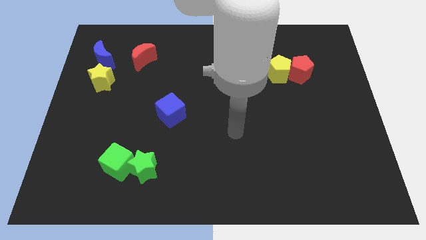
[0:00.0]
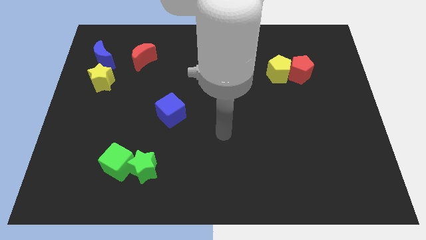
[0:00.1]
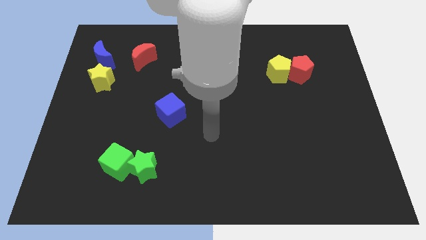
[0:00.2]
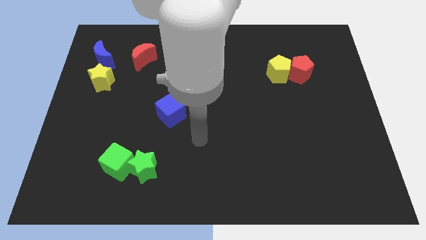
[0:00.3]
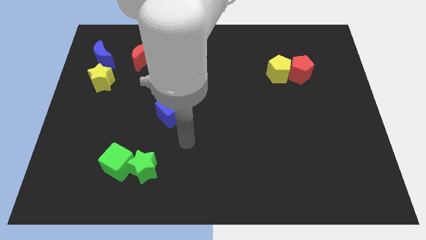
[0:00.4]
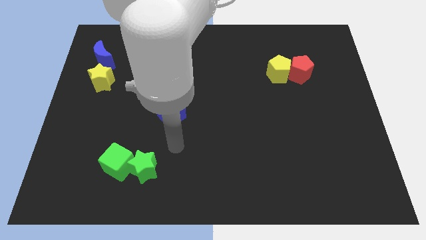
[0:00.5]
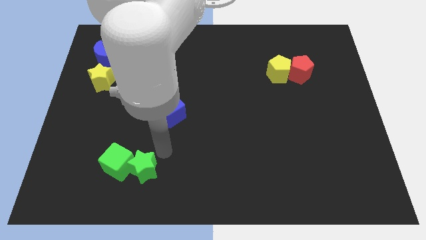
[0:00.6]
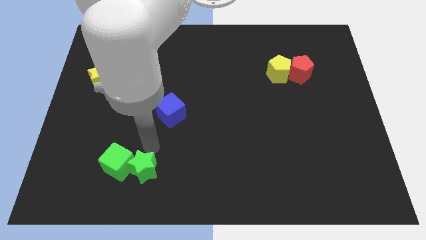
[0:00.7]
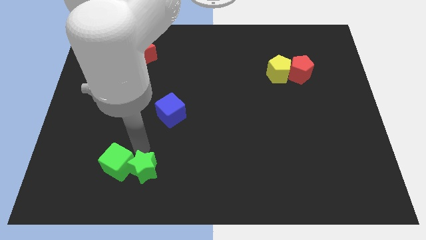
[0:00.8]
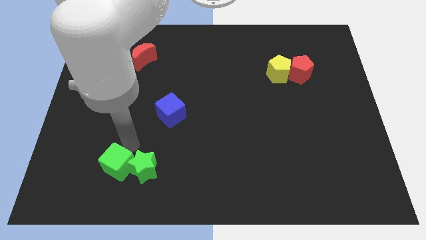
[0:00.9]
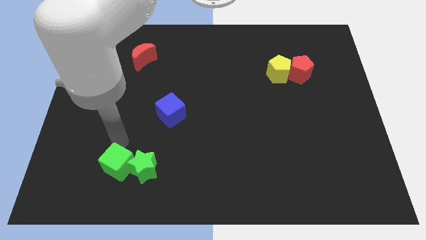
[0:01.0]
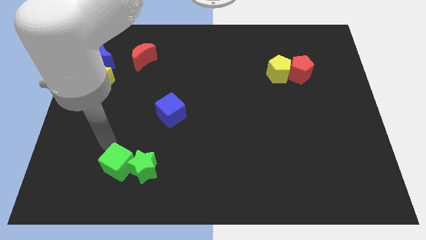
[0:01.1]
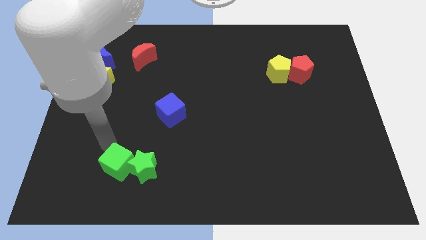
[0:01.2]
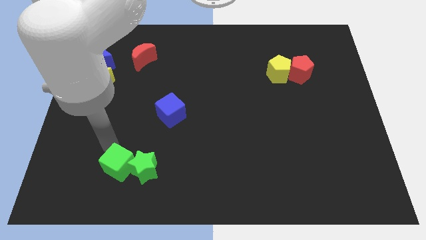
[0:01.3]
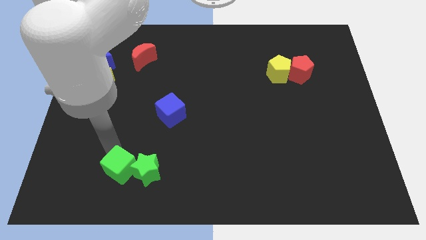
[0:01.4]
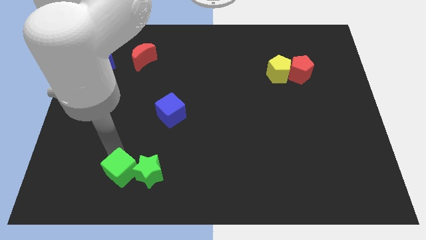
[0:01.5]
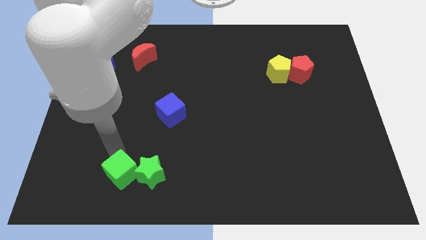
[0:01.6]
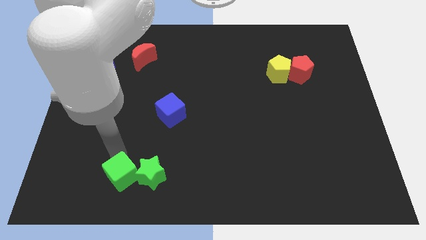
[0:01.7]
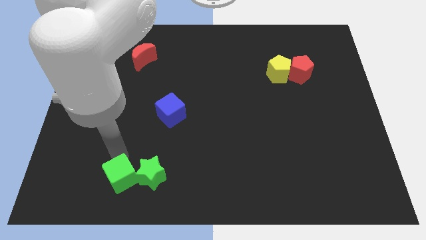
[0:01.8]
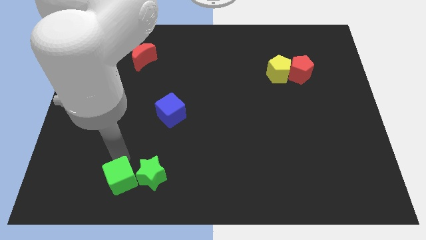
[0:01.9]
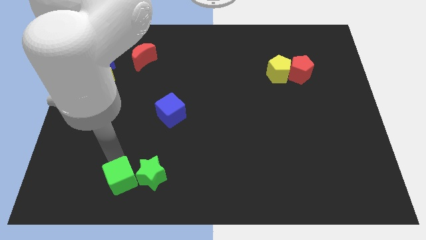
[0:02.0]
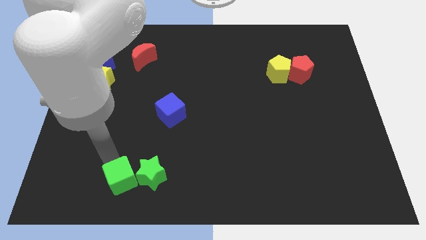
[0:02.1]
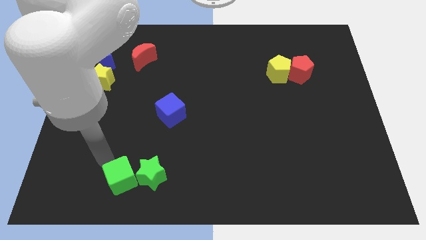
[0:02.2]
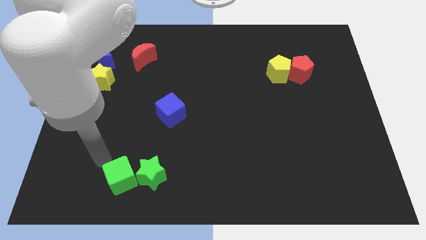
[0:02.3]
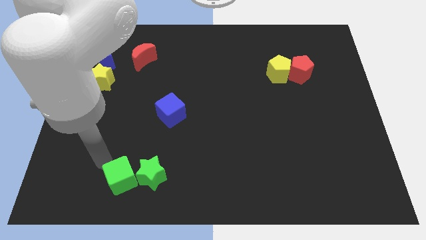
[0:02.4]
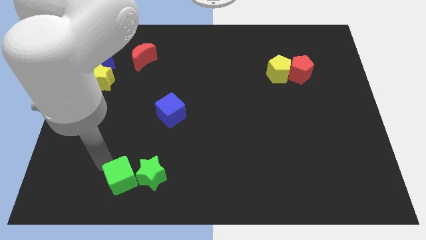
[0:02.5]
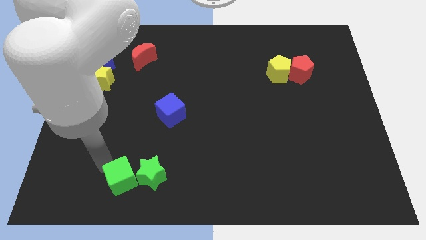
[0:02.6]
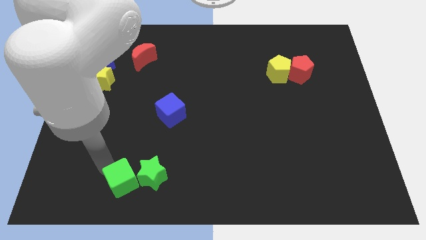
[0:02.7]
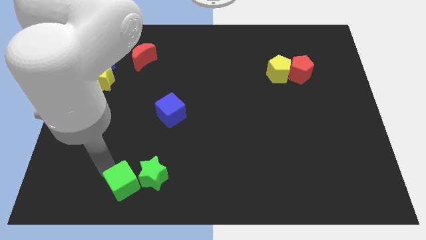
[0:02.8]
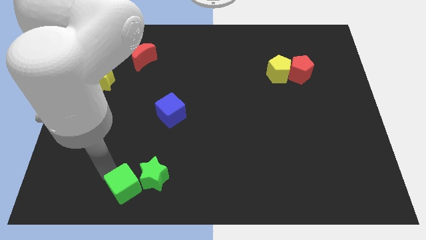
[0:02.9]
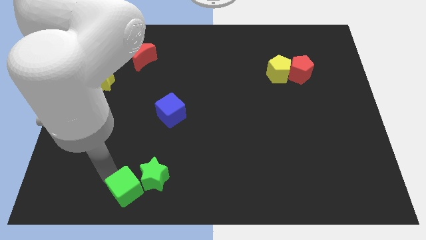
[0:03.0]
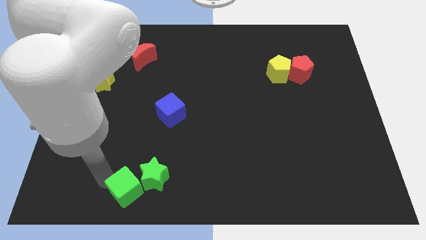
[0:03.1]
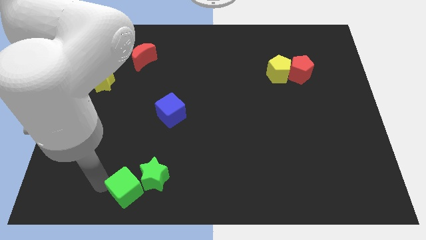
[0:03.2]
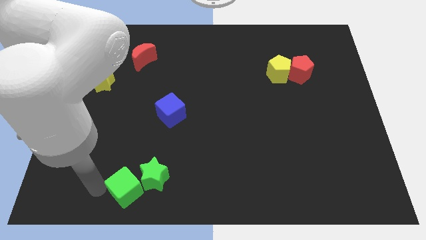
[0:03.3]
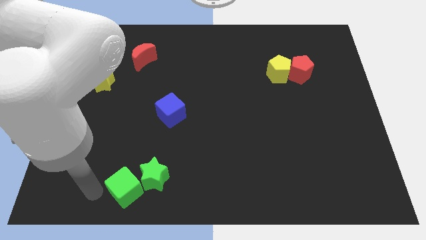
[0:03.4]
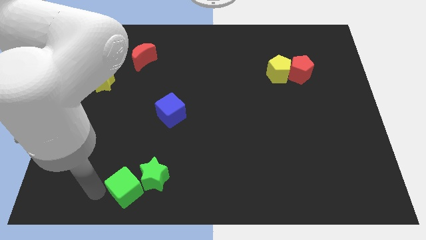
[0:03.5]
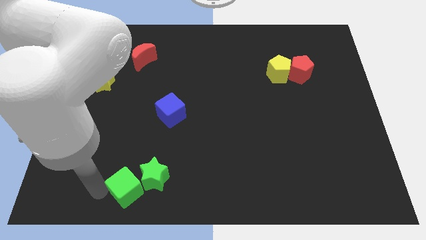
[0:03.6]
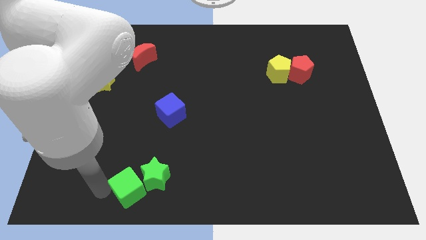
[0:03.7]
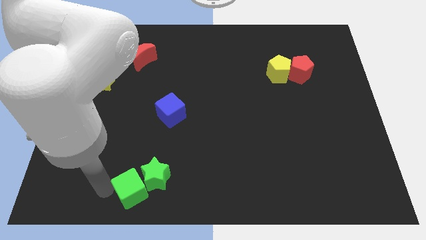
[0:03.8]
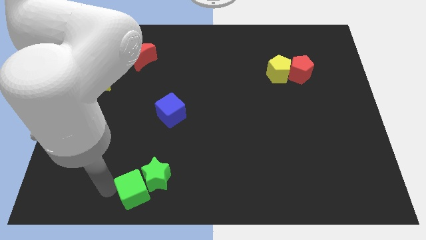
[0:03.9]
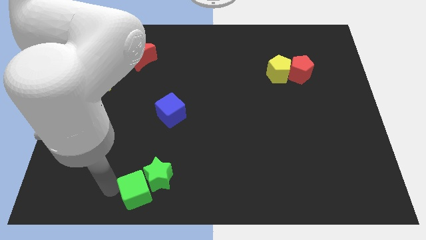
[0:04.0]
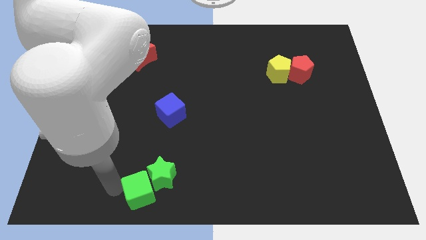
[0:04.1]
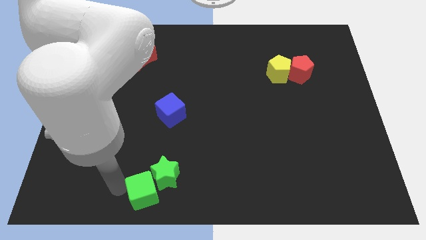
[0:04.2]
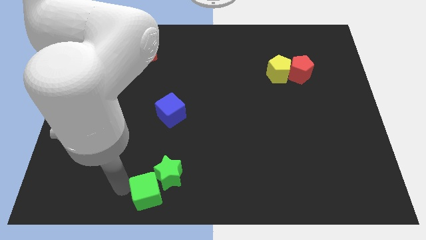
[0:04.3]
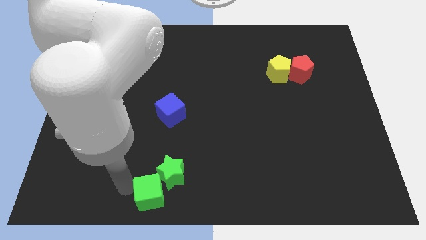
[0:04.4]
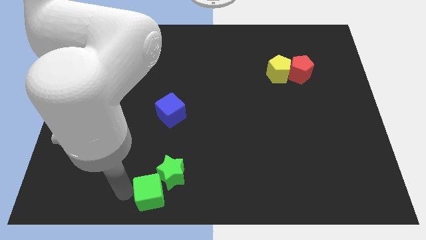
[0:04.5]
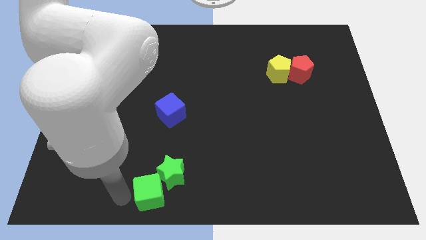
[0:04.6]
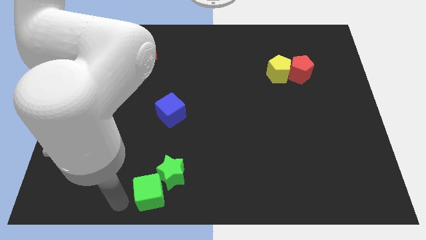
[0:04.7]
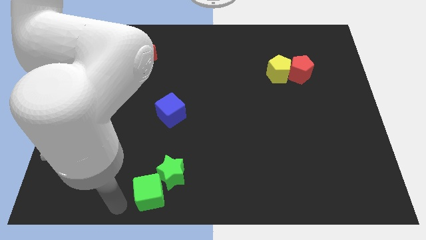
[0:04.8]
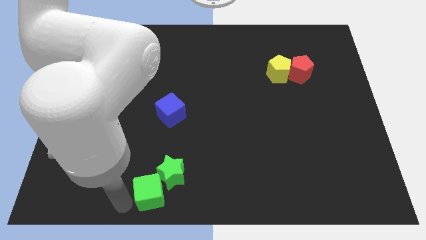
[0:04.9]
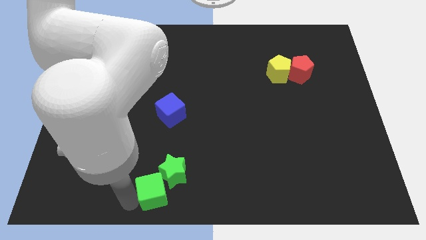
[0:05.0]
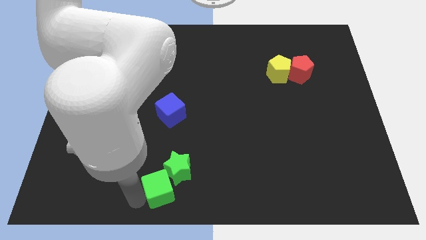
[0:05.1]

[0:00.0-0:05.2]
move the green cube to the right slightly

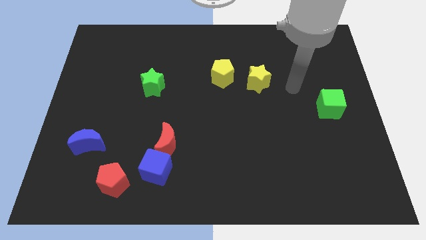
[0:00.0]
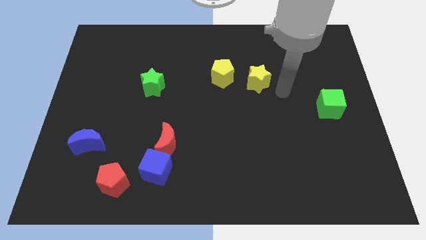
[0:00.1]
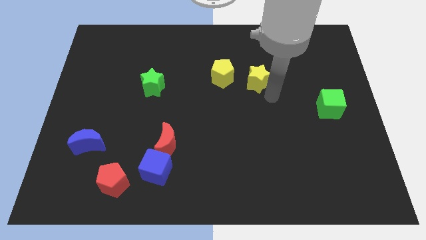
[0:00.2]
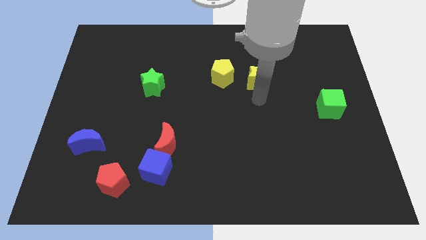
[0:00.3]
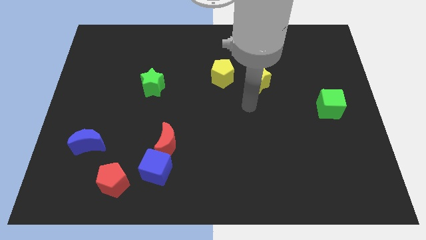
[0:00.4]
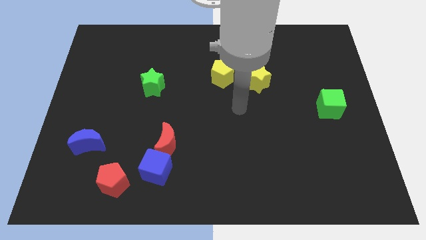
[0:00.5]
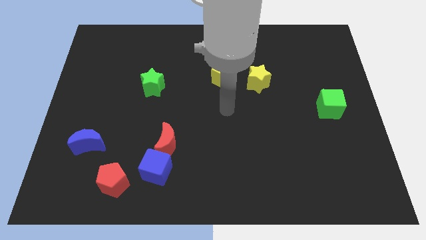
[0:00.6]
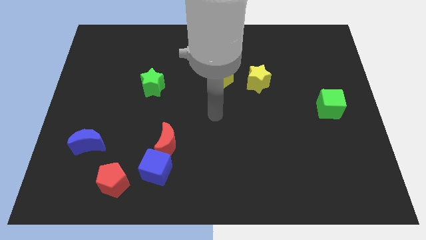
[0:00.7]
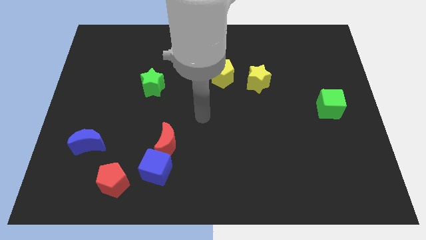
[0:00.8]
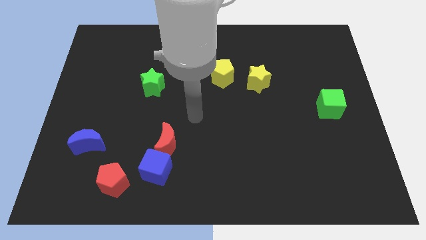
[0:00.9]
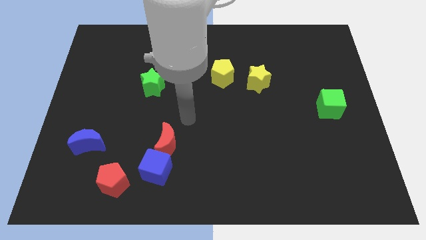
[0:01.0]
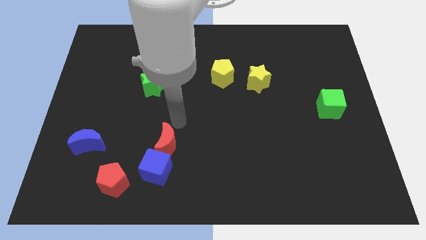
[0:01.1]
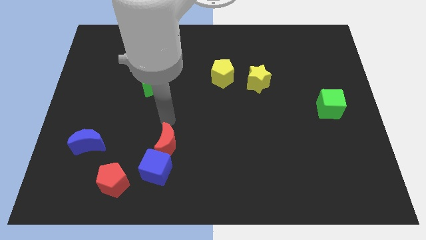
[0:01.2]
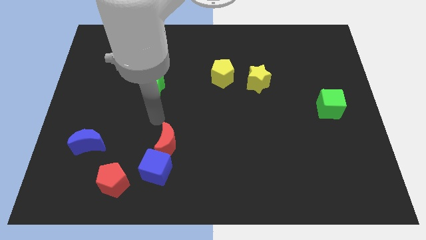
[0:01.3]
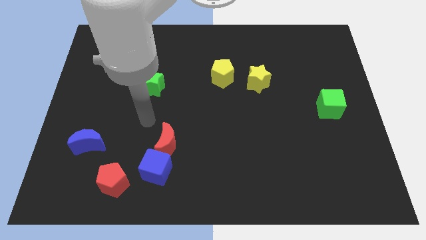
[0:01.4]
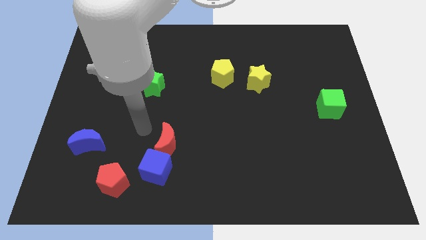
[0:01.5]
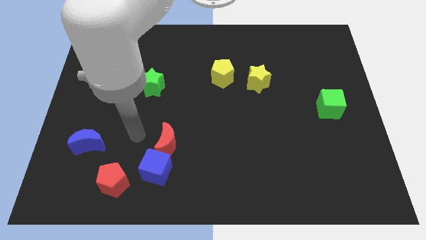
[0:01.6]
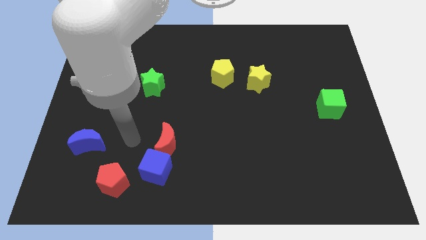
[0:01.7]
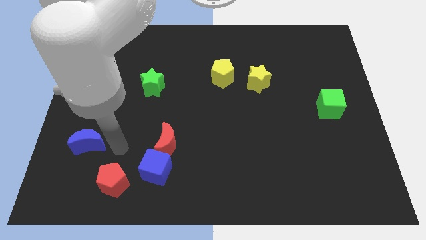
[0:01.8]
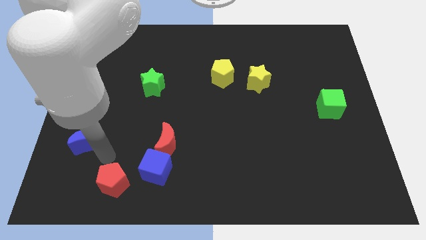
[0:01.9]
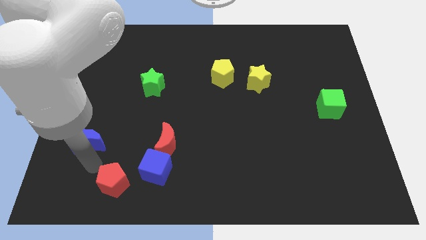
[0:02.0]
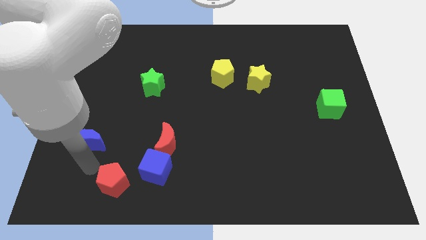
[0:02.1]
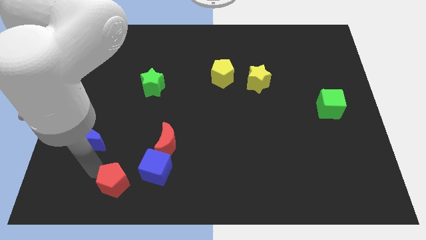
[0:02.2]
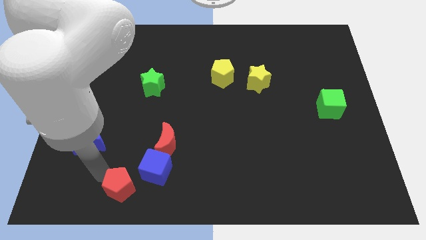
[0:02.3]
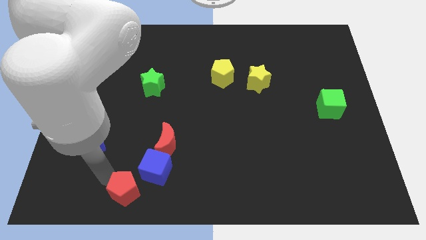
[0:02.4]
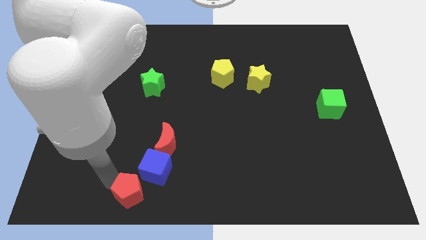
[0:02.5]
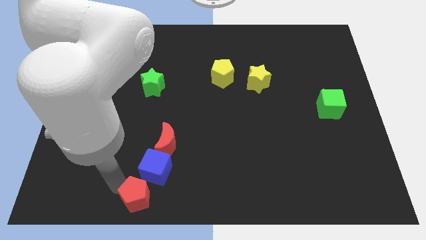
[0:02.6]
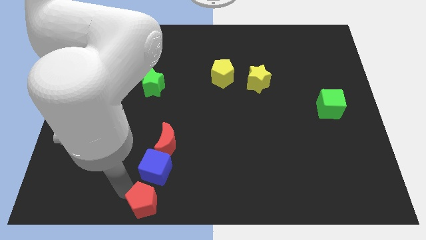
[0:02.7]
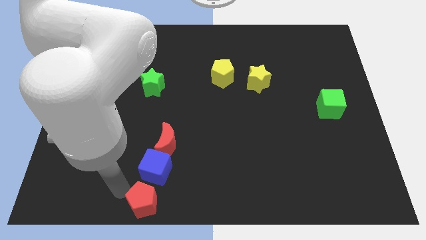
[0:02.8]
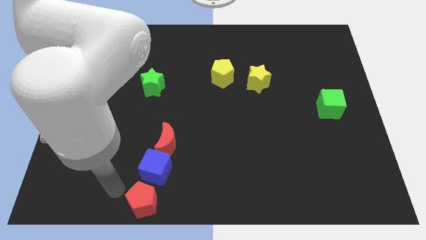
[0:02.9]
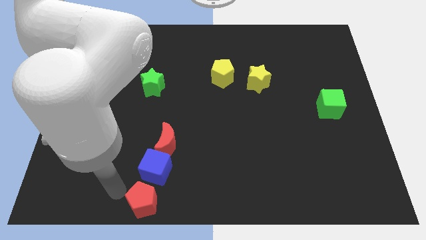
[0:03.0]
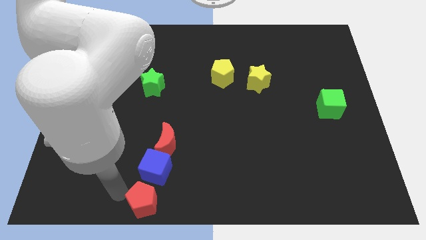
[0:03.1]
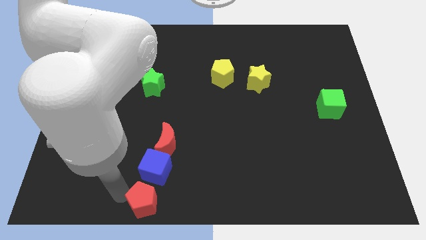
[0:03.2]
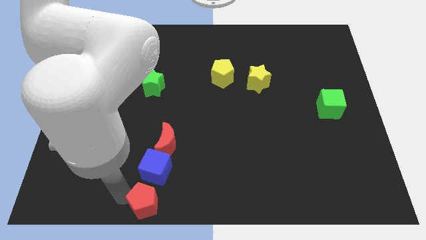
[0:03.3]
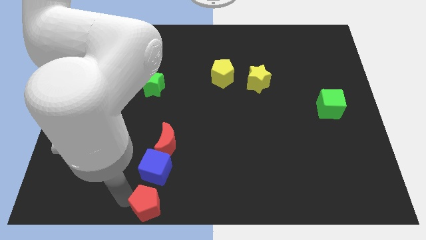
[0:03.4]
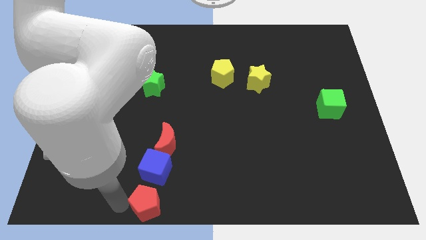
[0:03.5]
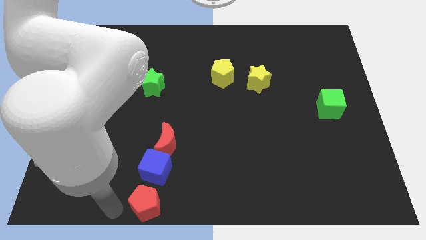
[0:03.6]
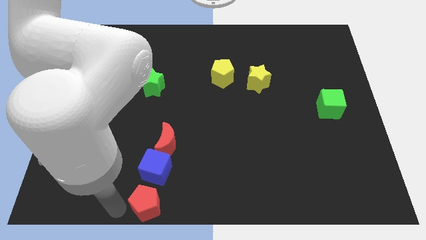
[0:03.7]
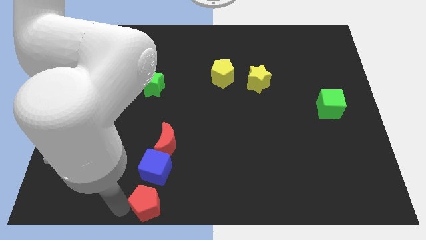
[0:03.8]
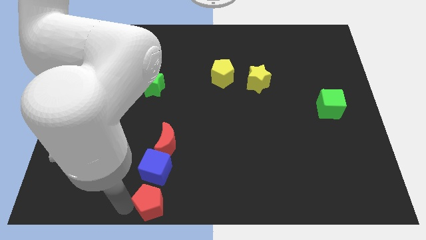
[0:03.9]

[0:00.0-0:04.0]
slightly push the red pentagon to the right
